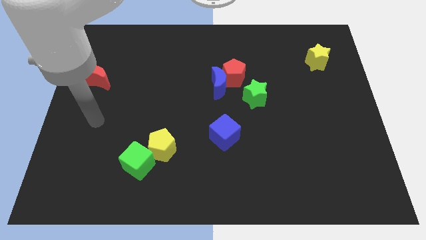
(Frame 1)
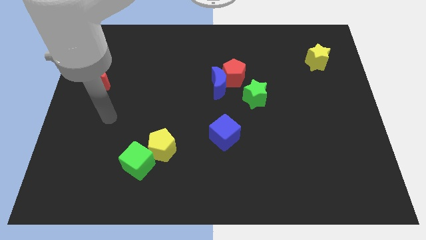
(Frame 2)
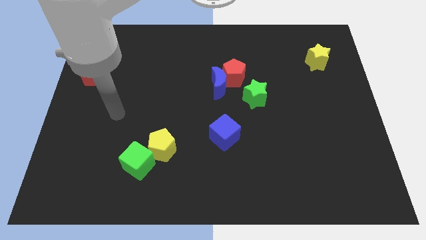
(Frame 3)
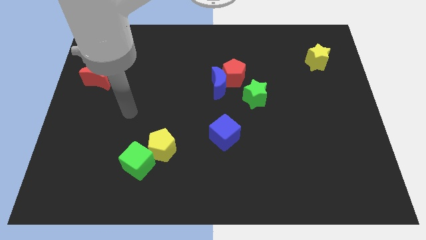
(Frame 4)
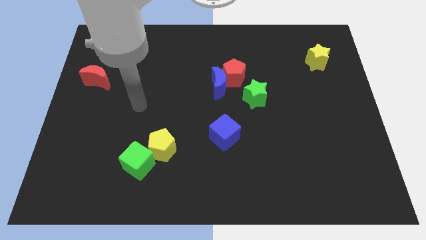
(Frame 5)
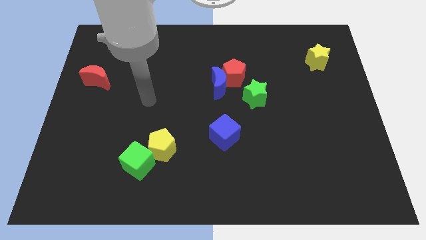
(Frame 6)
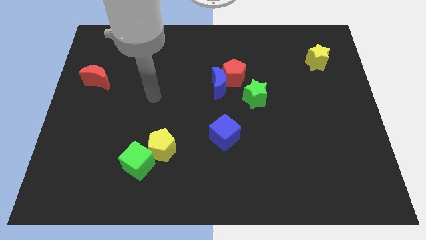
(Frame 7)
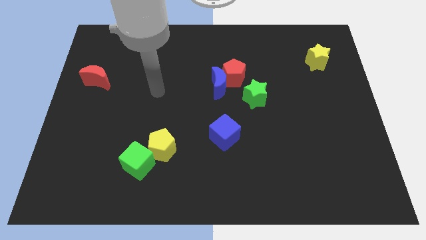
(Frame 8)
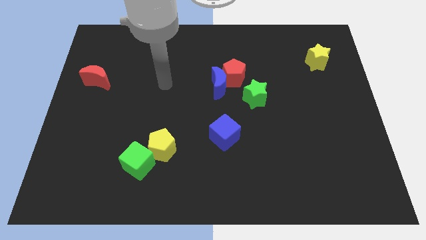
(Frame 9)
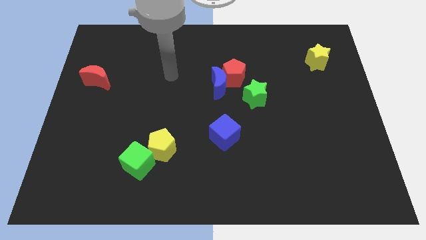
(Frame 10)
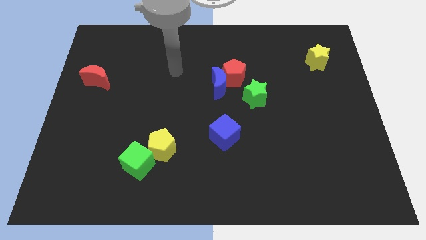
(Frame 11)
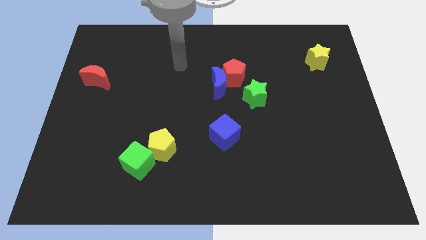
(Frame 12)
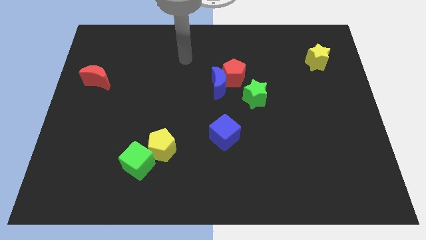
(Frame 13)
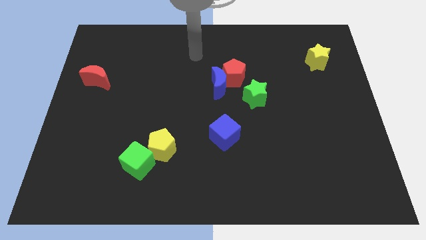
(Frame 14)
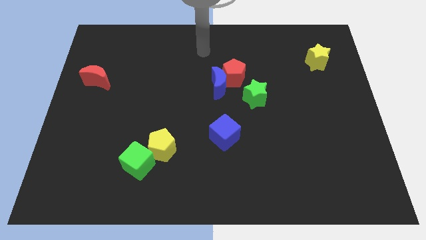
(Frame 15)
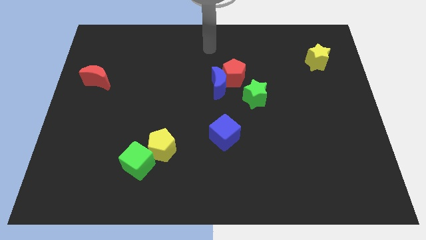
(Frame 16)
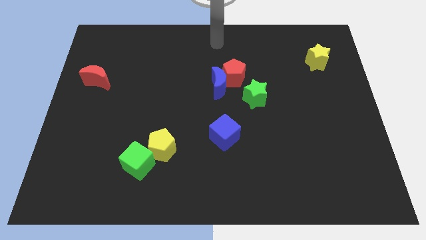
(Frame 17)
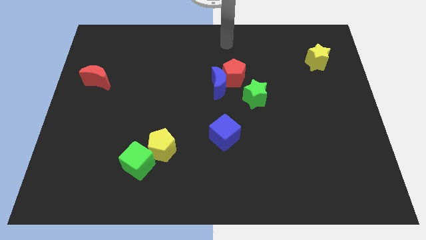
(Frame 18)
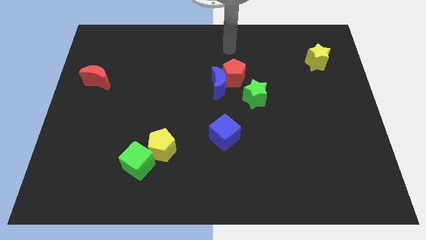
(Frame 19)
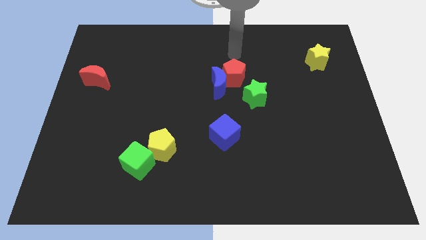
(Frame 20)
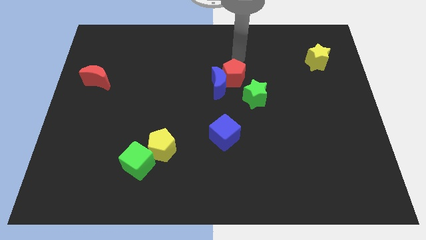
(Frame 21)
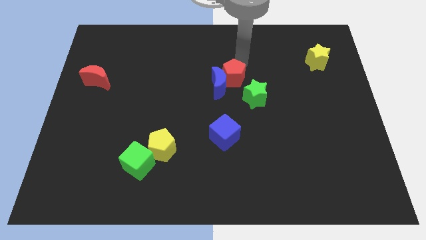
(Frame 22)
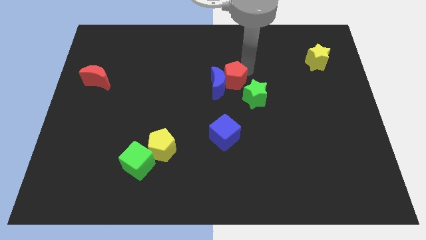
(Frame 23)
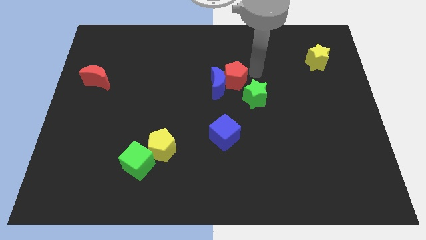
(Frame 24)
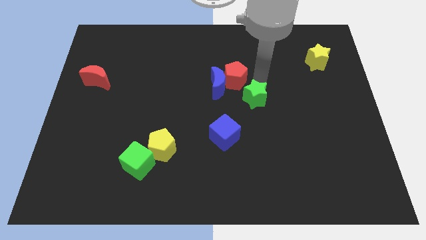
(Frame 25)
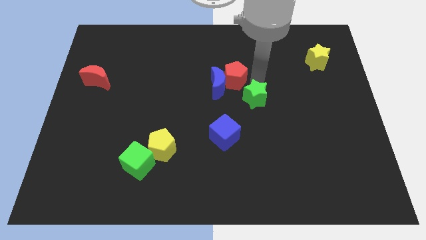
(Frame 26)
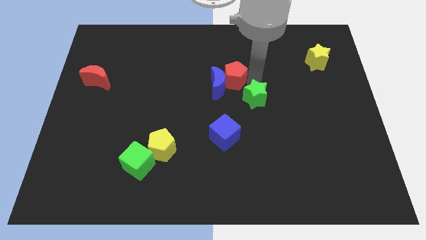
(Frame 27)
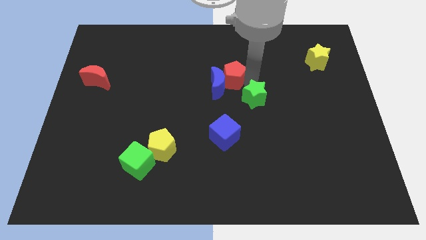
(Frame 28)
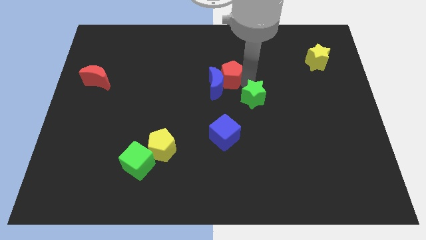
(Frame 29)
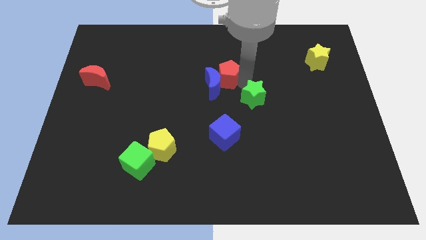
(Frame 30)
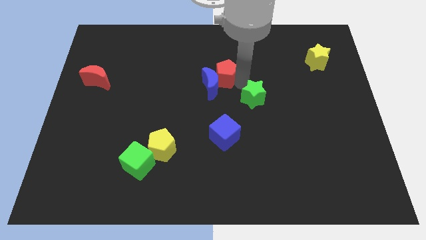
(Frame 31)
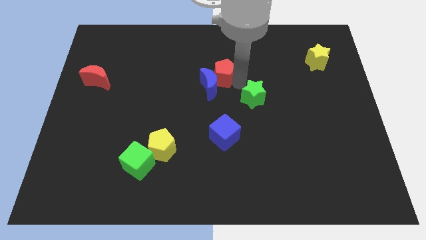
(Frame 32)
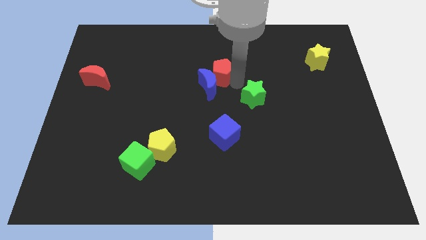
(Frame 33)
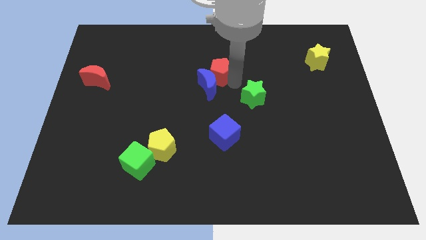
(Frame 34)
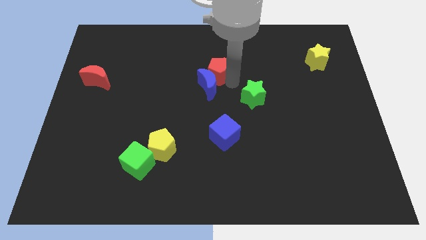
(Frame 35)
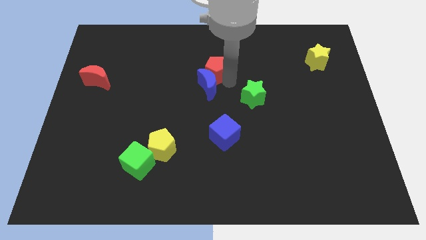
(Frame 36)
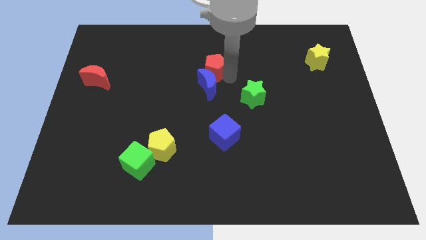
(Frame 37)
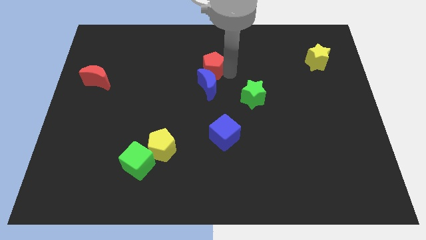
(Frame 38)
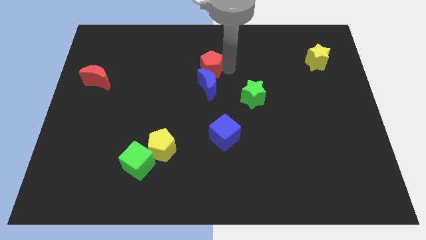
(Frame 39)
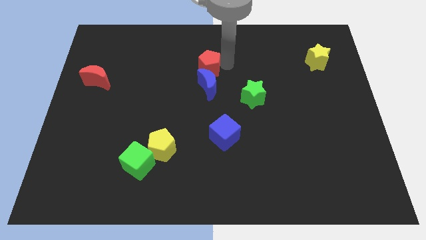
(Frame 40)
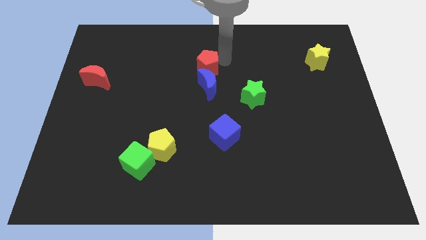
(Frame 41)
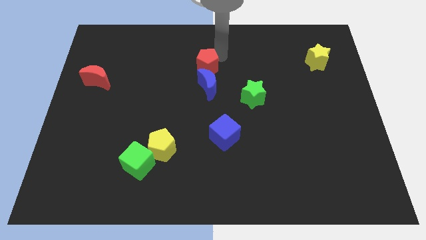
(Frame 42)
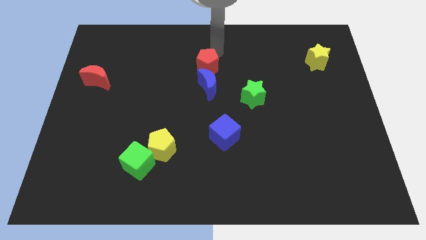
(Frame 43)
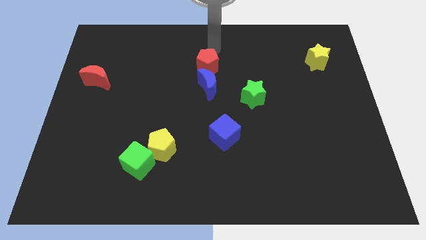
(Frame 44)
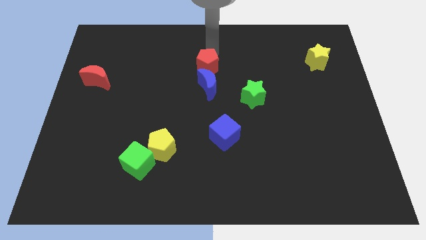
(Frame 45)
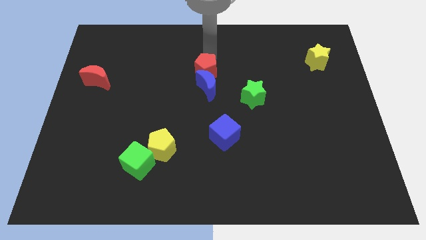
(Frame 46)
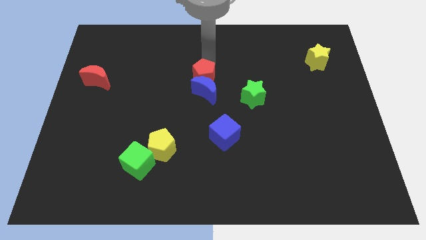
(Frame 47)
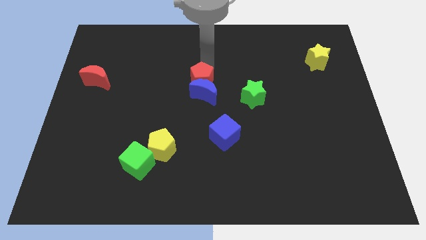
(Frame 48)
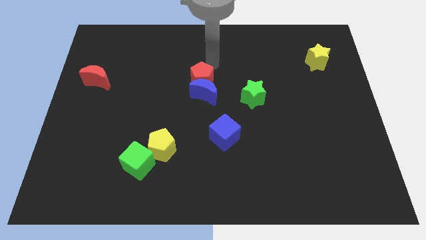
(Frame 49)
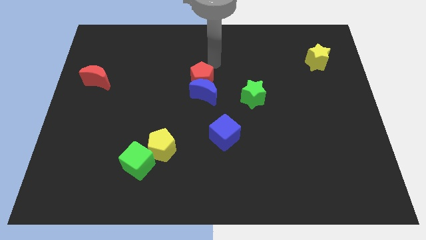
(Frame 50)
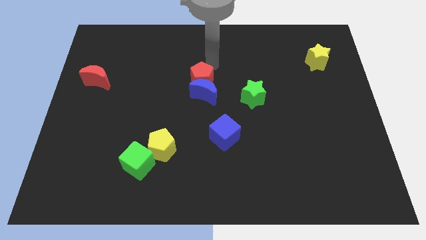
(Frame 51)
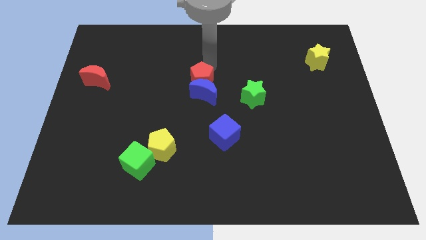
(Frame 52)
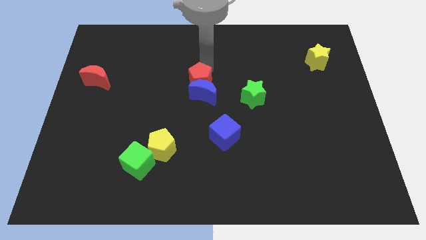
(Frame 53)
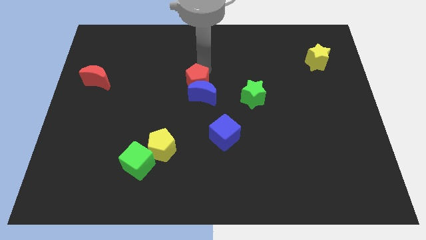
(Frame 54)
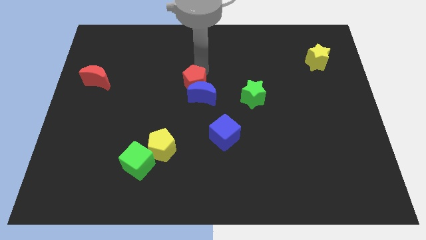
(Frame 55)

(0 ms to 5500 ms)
slide the red pentagon somewhat down and to the left diagonally

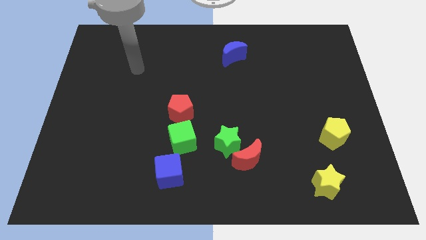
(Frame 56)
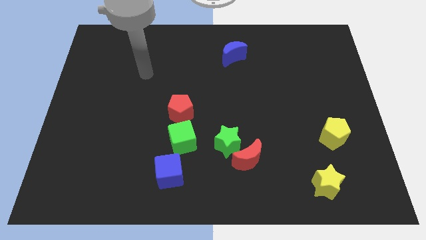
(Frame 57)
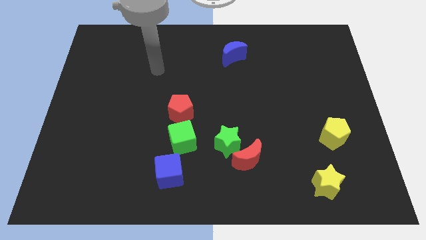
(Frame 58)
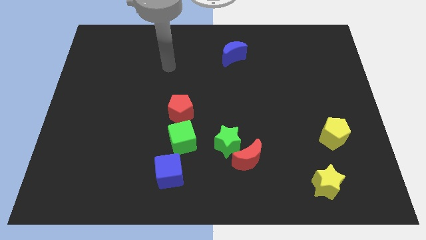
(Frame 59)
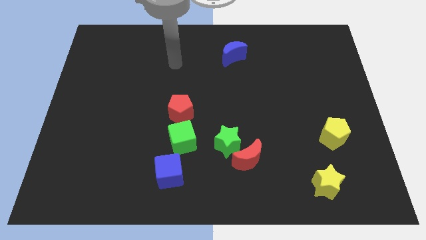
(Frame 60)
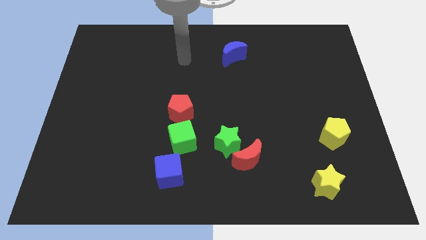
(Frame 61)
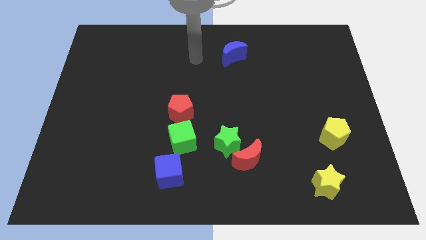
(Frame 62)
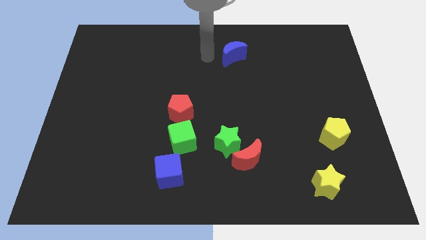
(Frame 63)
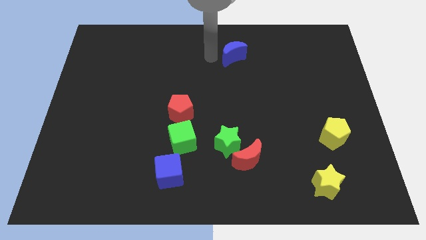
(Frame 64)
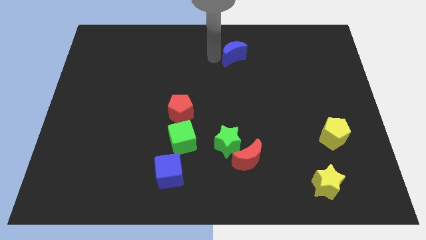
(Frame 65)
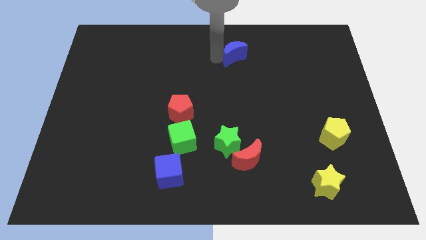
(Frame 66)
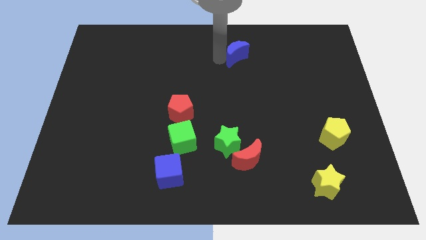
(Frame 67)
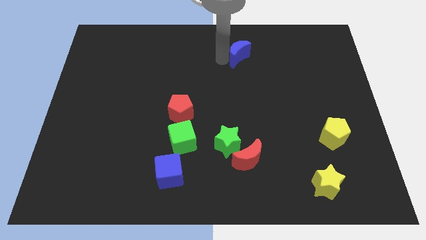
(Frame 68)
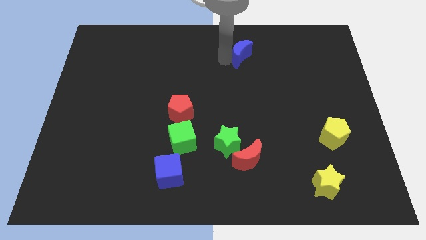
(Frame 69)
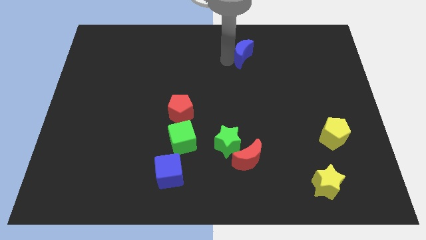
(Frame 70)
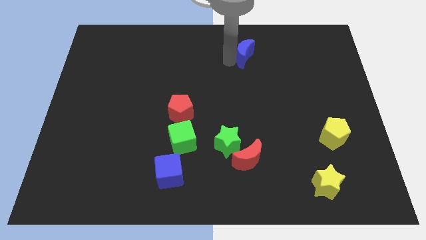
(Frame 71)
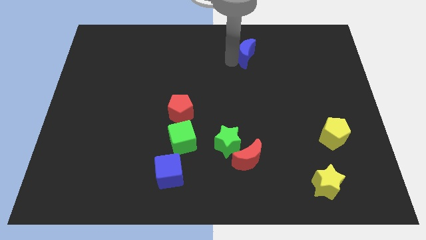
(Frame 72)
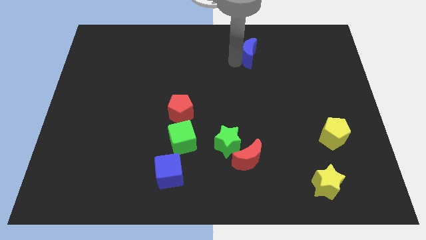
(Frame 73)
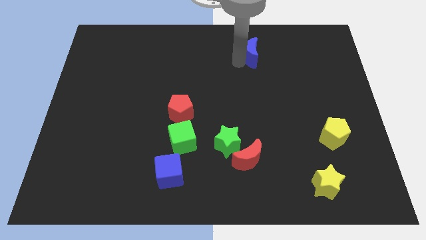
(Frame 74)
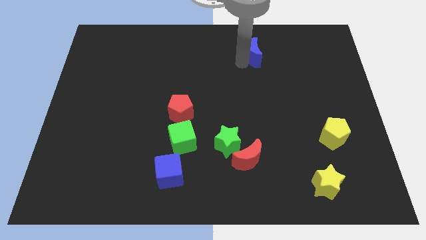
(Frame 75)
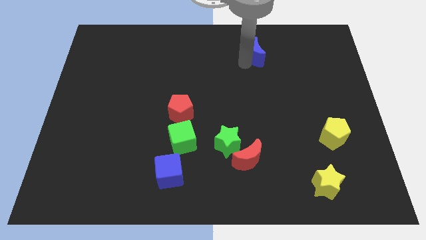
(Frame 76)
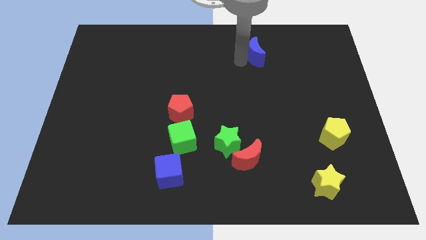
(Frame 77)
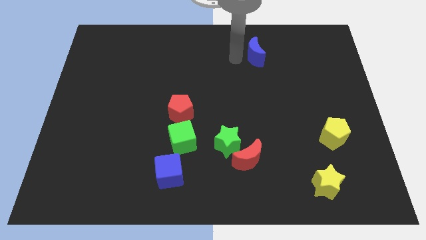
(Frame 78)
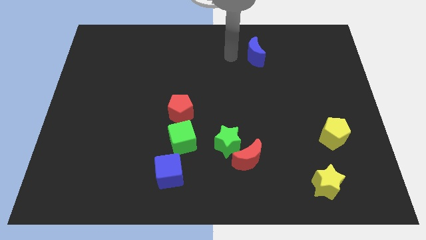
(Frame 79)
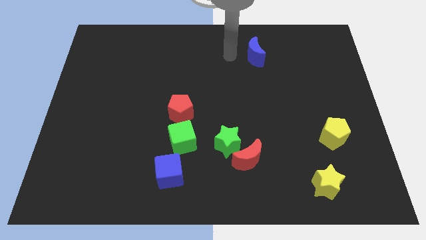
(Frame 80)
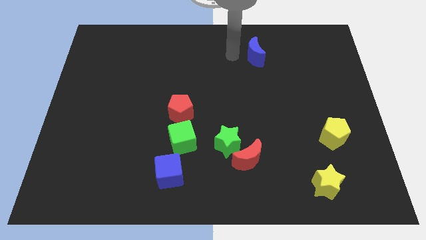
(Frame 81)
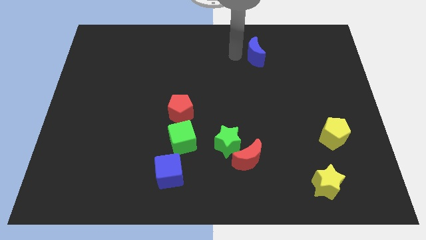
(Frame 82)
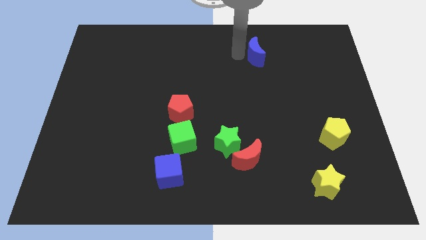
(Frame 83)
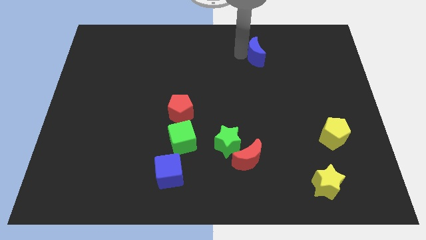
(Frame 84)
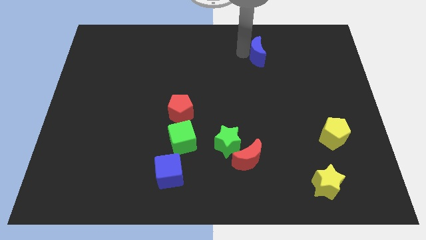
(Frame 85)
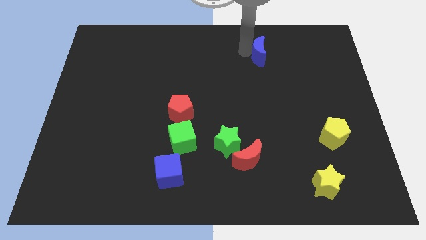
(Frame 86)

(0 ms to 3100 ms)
push the blue moon to the right a little bit
